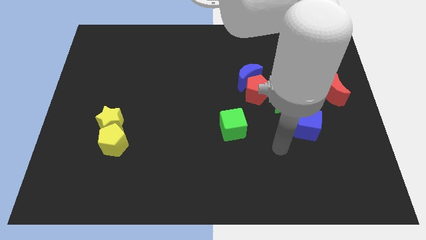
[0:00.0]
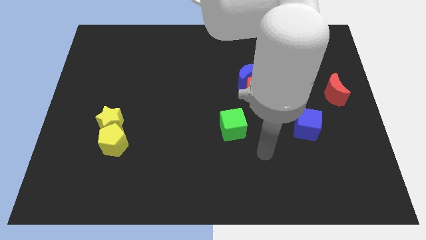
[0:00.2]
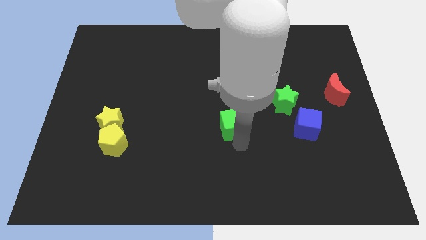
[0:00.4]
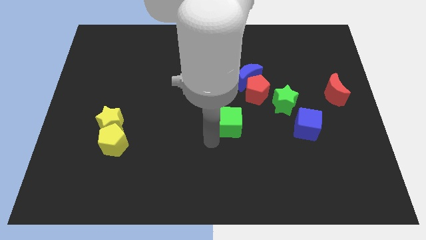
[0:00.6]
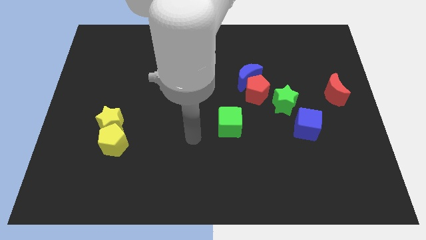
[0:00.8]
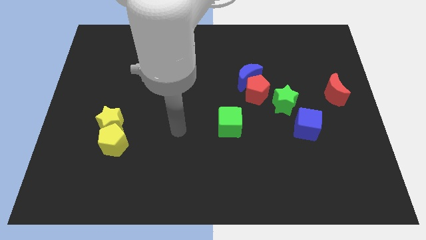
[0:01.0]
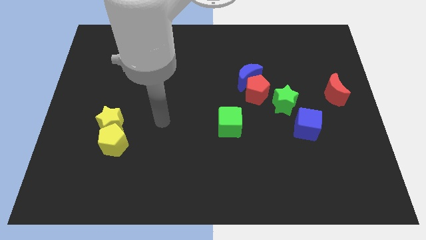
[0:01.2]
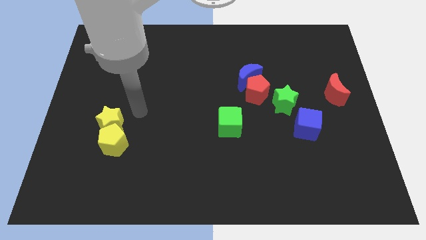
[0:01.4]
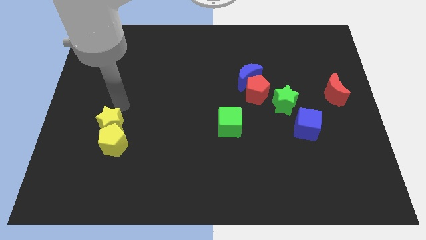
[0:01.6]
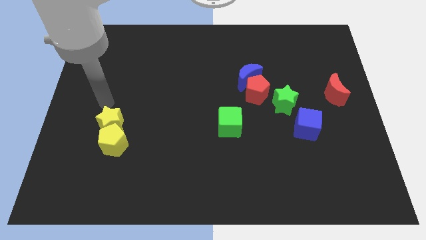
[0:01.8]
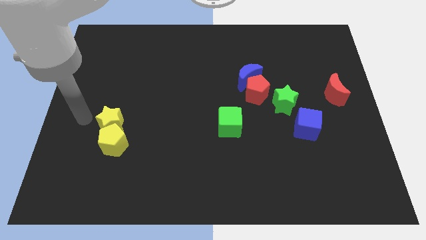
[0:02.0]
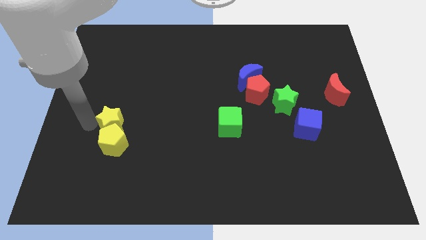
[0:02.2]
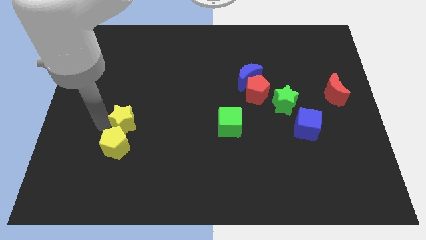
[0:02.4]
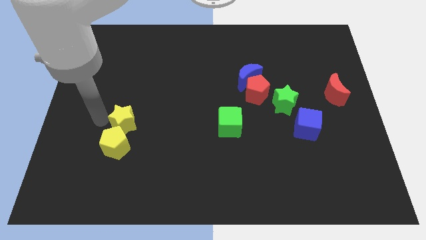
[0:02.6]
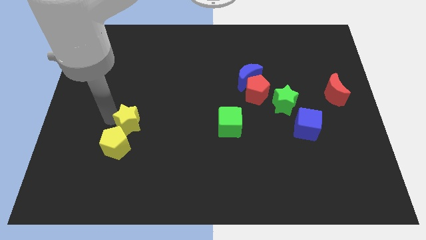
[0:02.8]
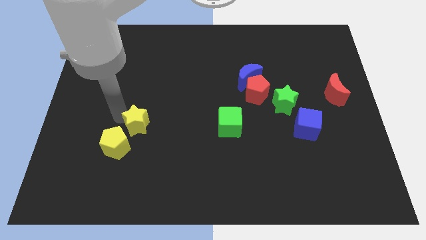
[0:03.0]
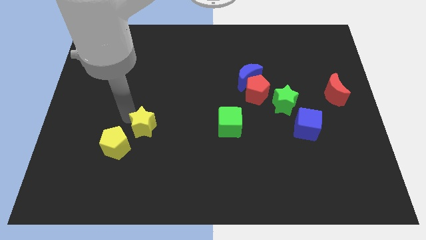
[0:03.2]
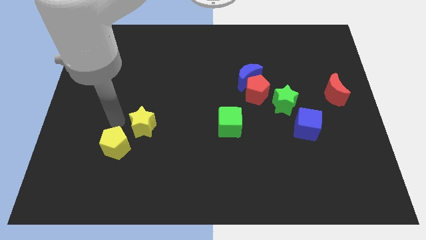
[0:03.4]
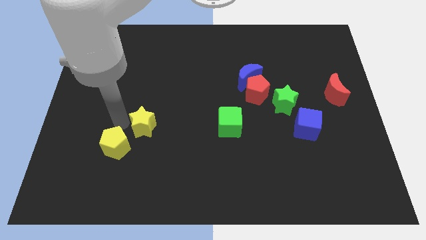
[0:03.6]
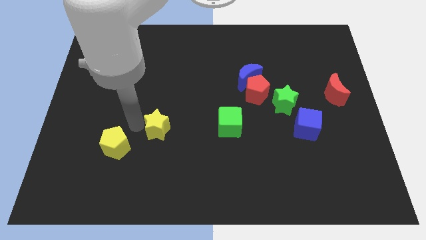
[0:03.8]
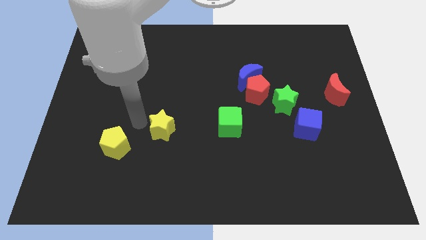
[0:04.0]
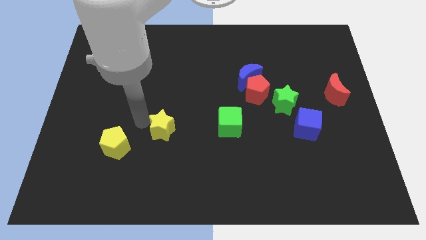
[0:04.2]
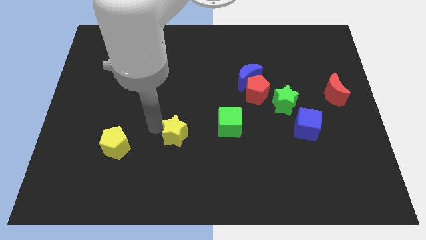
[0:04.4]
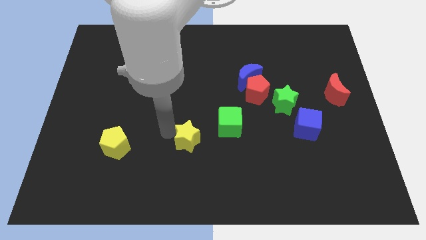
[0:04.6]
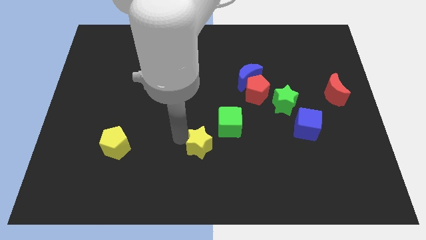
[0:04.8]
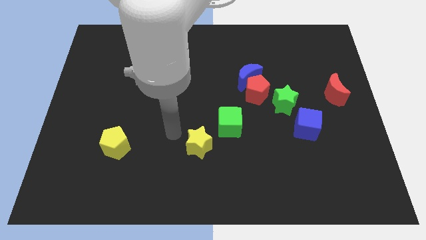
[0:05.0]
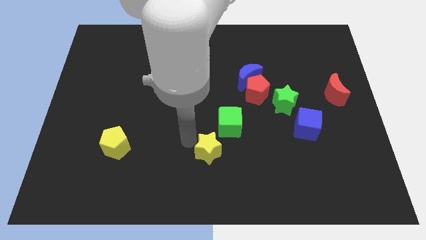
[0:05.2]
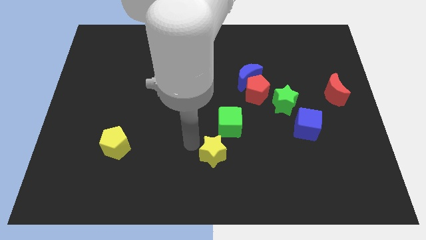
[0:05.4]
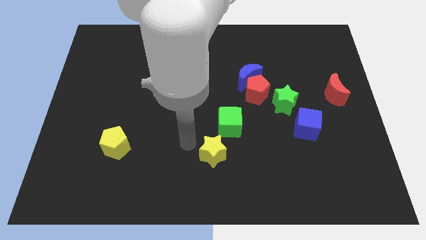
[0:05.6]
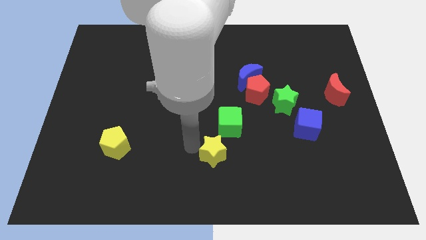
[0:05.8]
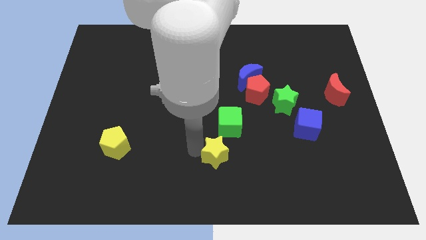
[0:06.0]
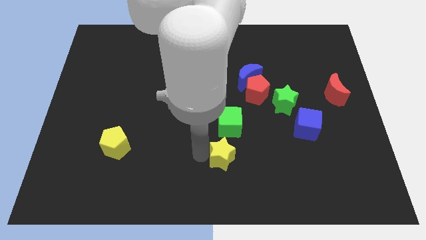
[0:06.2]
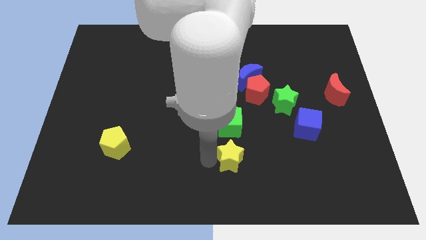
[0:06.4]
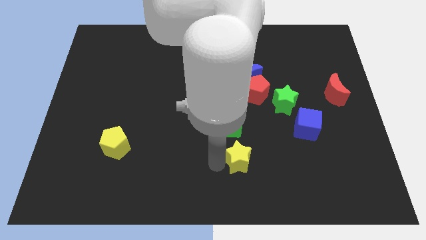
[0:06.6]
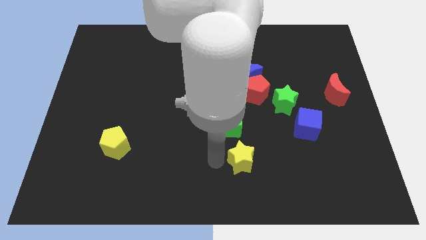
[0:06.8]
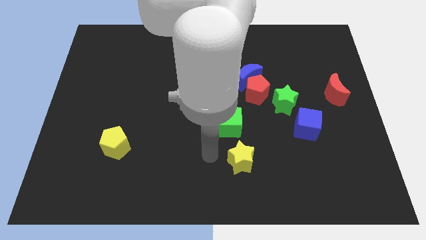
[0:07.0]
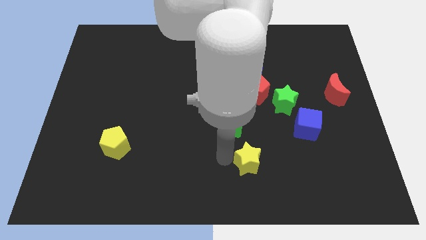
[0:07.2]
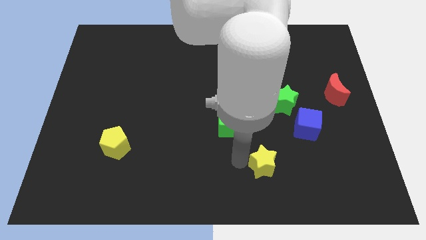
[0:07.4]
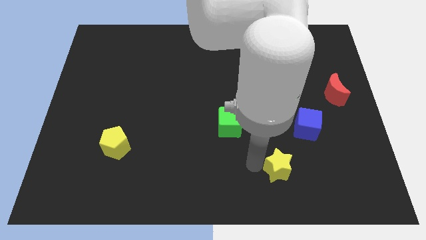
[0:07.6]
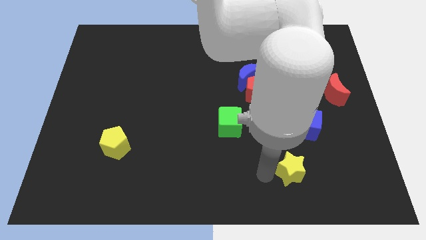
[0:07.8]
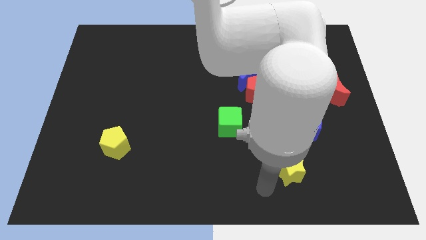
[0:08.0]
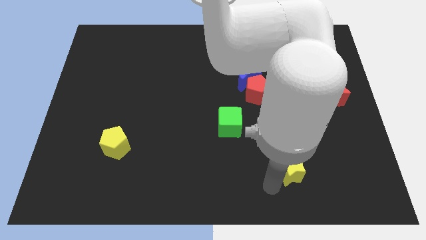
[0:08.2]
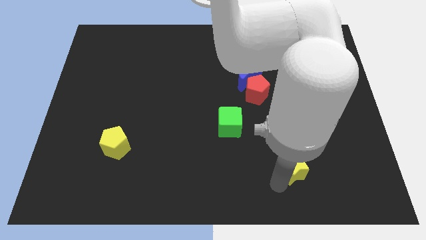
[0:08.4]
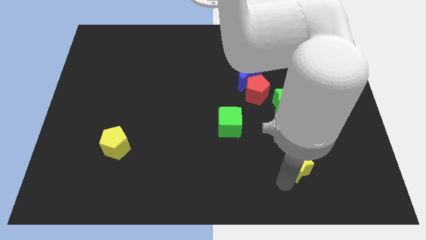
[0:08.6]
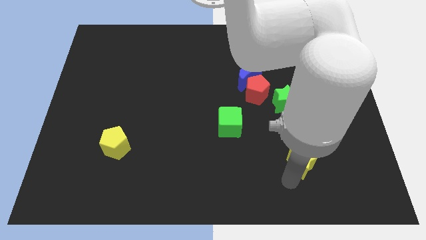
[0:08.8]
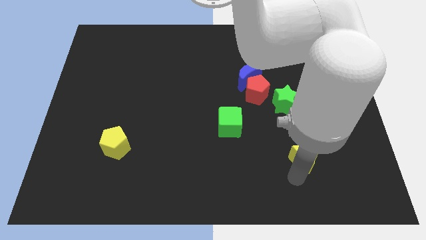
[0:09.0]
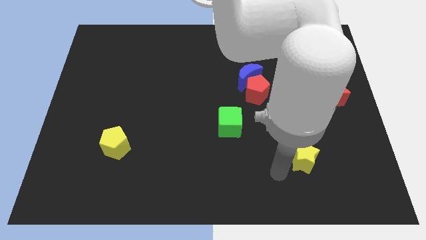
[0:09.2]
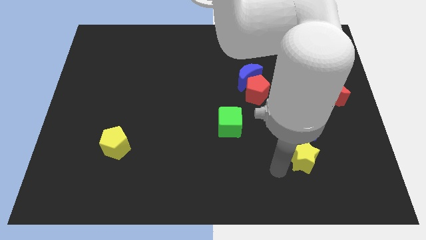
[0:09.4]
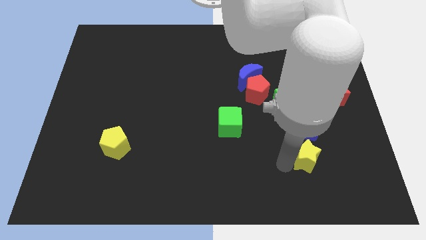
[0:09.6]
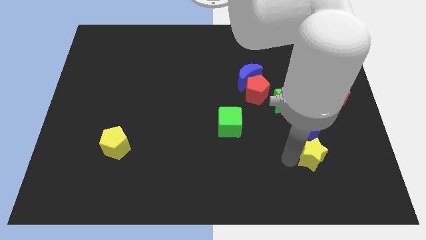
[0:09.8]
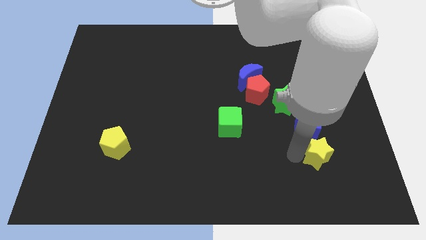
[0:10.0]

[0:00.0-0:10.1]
put the yellow star diagonally down and to the right of the blue cube

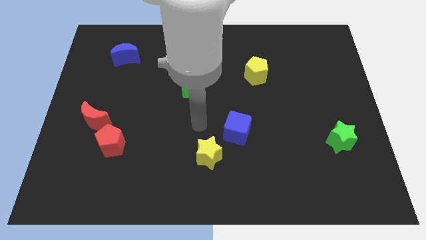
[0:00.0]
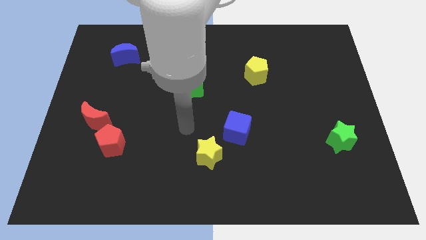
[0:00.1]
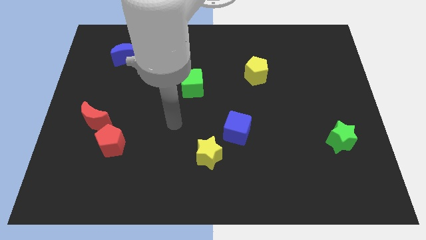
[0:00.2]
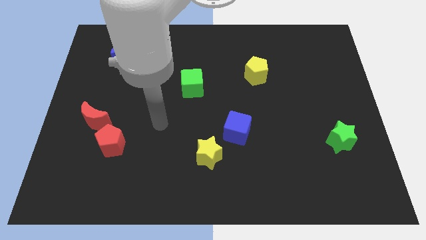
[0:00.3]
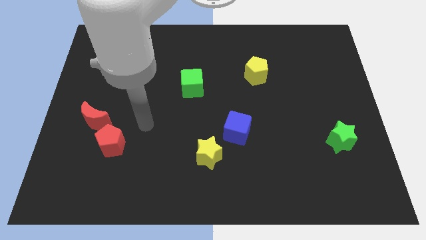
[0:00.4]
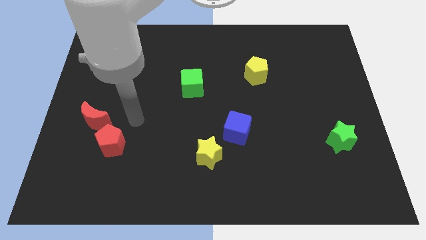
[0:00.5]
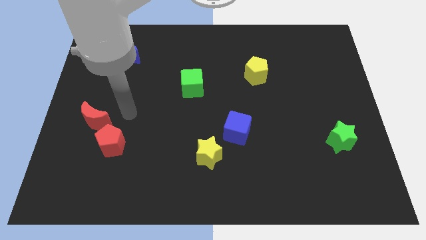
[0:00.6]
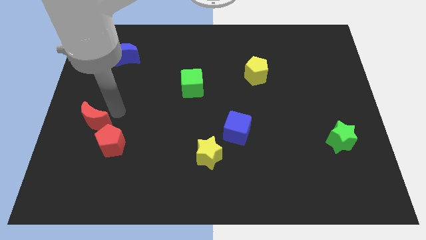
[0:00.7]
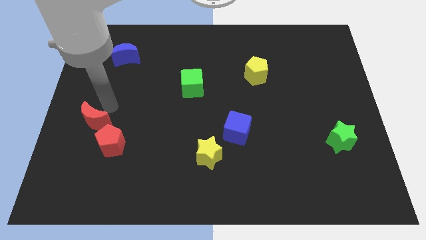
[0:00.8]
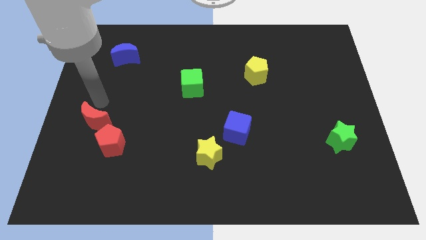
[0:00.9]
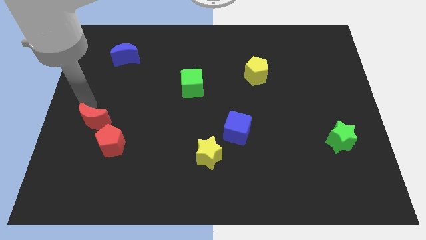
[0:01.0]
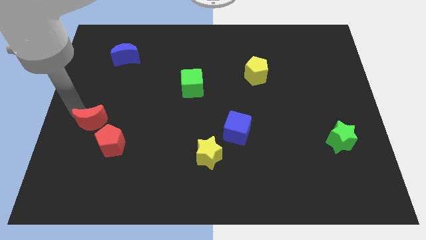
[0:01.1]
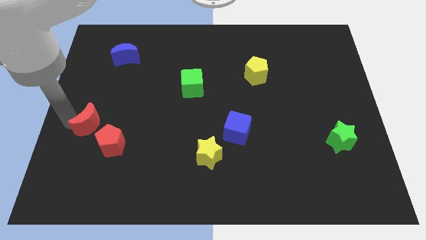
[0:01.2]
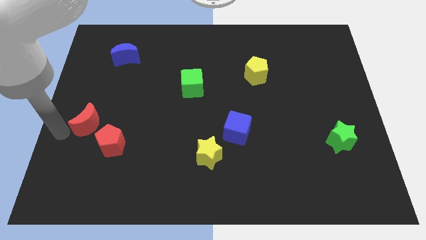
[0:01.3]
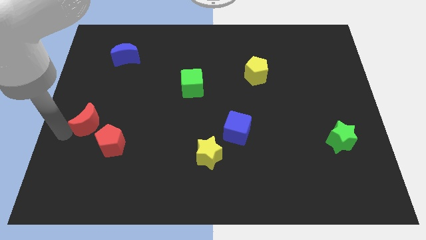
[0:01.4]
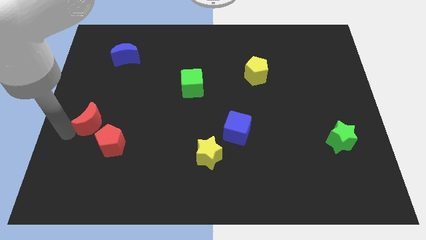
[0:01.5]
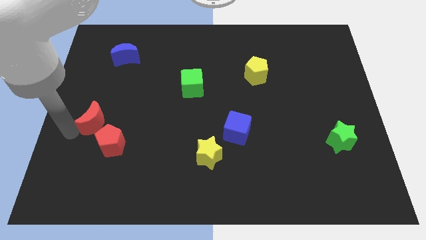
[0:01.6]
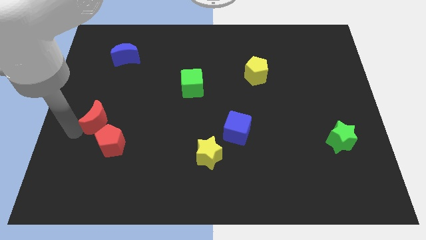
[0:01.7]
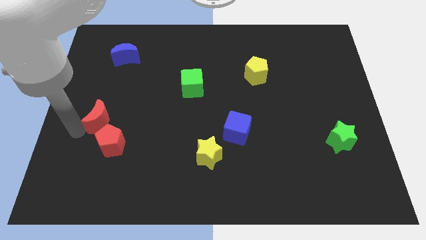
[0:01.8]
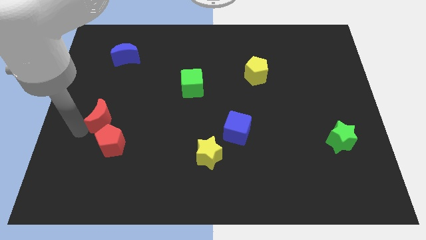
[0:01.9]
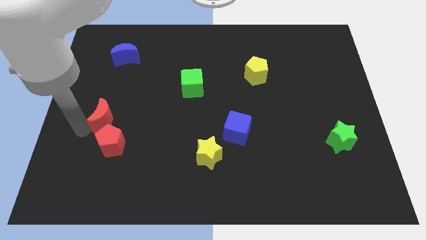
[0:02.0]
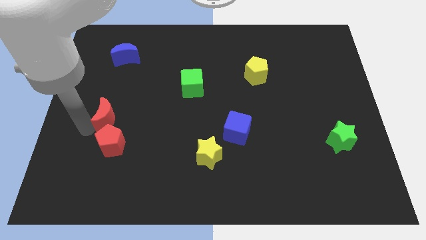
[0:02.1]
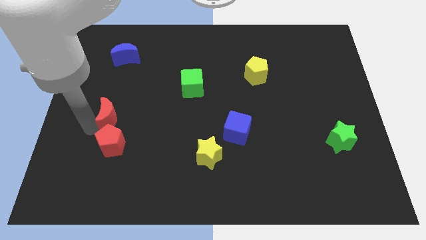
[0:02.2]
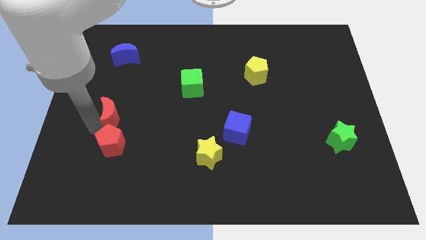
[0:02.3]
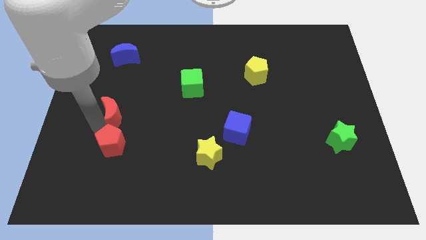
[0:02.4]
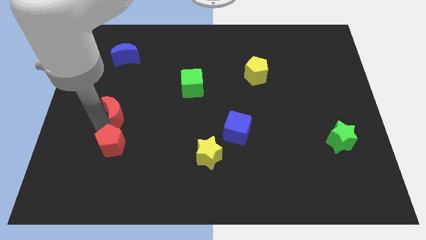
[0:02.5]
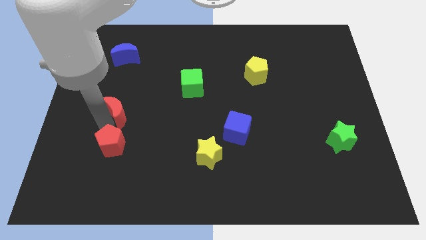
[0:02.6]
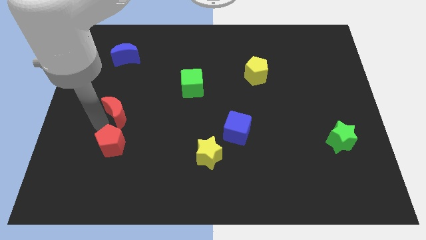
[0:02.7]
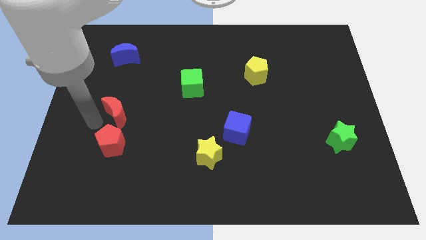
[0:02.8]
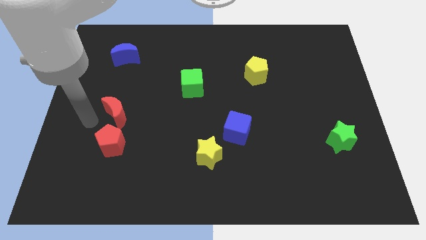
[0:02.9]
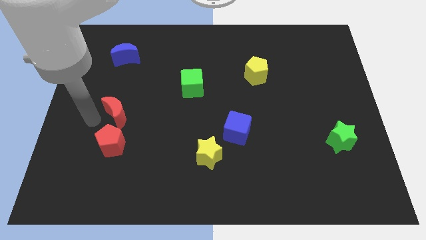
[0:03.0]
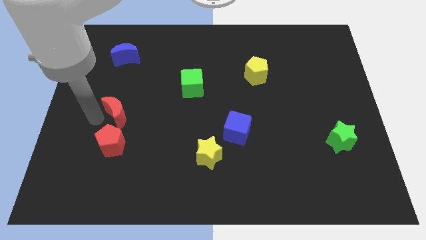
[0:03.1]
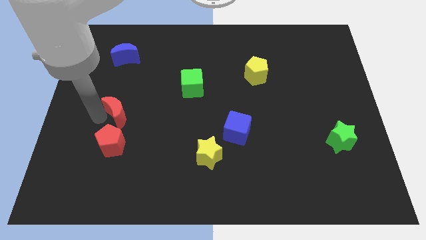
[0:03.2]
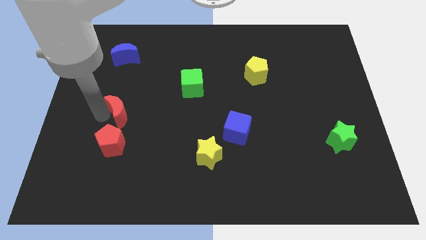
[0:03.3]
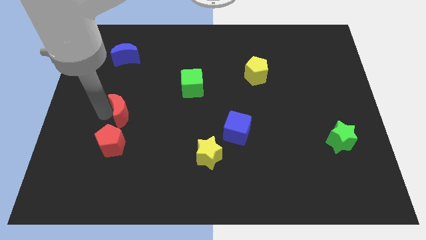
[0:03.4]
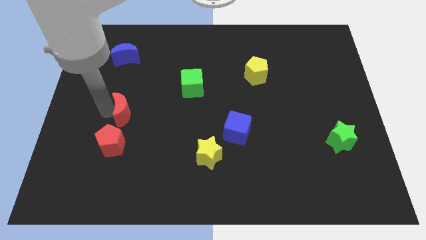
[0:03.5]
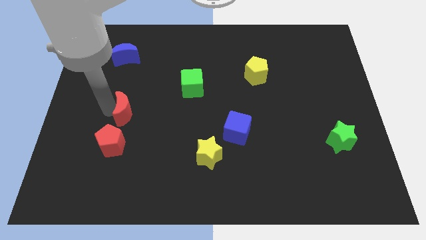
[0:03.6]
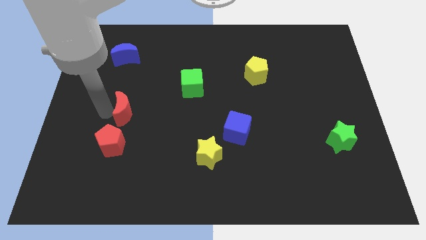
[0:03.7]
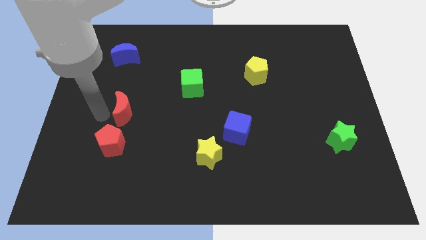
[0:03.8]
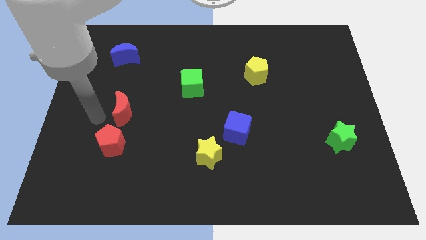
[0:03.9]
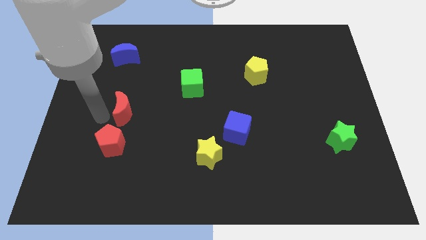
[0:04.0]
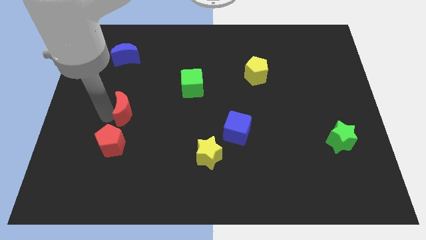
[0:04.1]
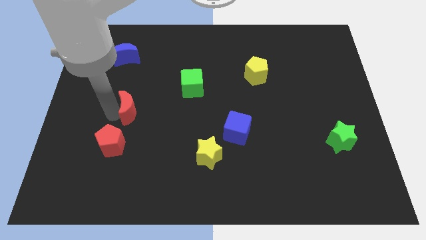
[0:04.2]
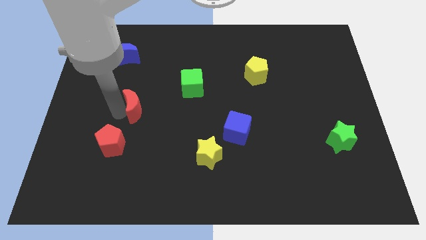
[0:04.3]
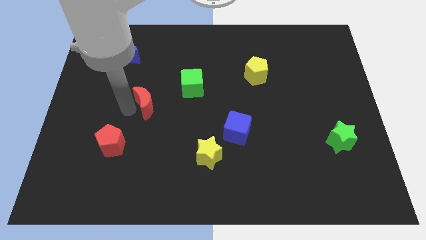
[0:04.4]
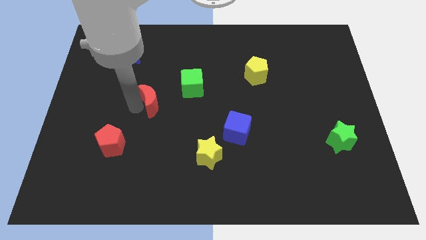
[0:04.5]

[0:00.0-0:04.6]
put the red moon diagonally down and to the left of the green cube
